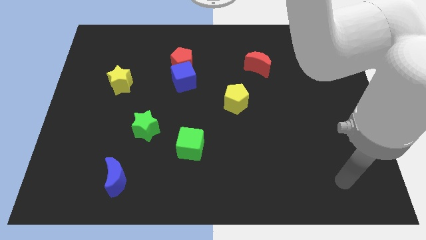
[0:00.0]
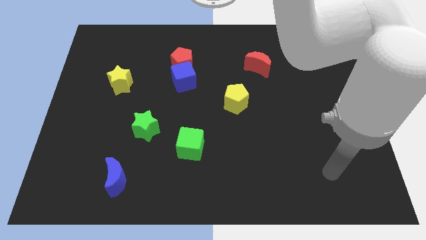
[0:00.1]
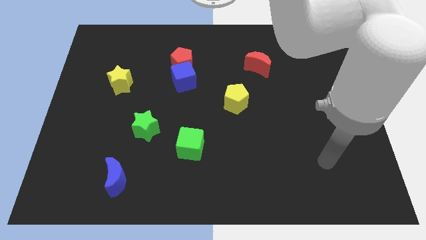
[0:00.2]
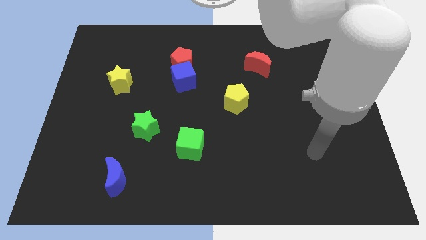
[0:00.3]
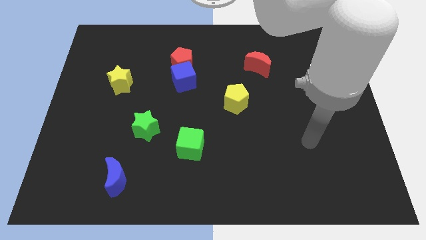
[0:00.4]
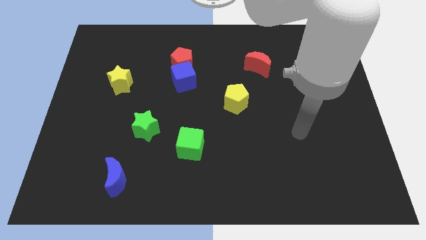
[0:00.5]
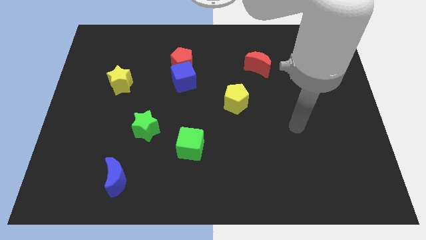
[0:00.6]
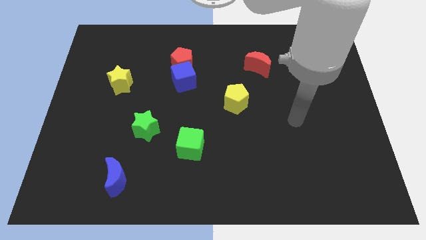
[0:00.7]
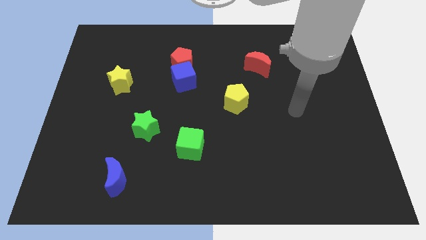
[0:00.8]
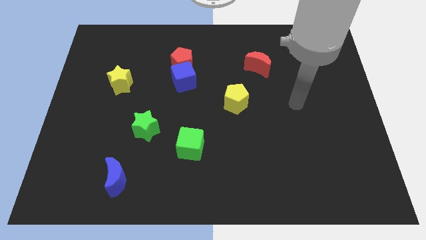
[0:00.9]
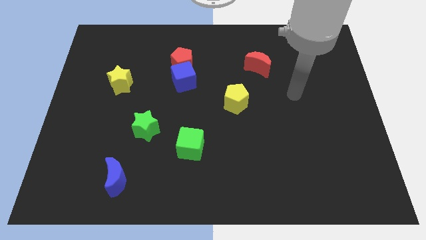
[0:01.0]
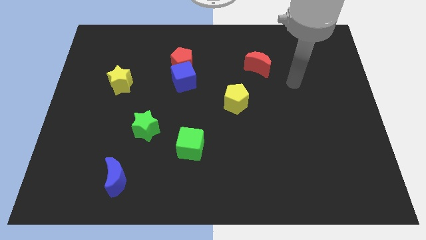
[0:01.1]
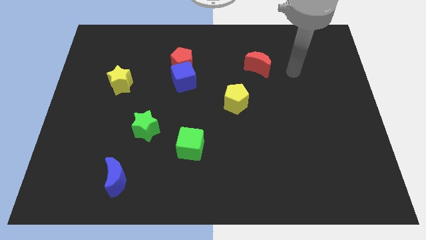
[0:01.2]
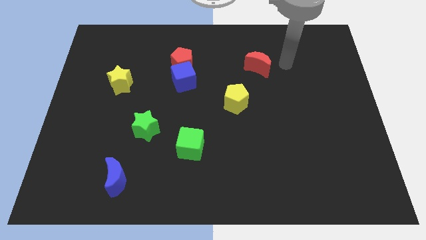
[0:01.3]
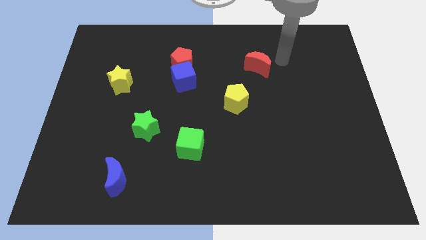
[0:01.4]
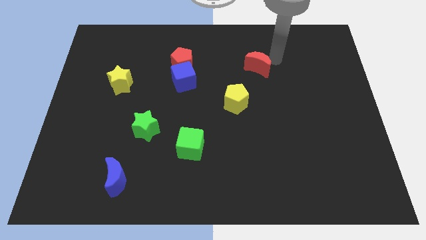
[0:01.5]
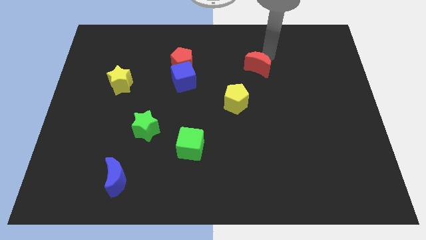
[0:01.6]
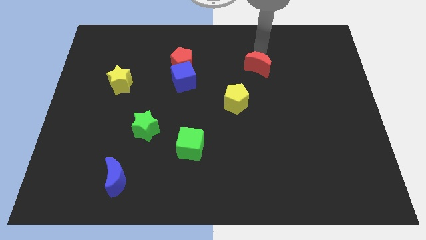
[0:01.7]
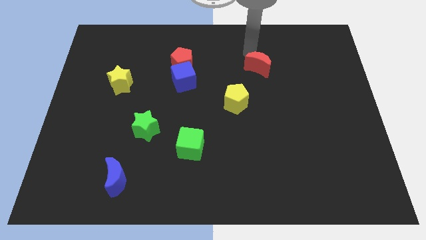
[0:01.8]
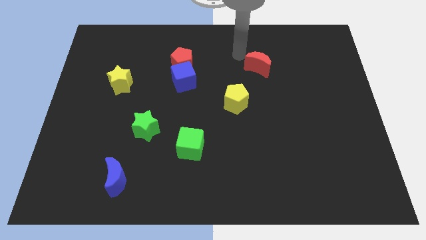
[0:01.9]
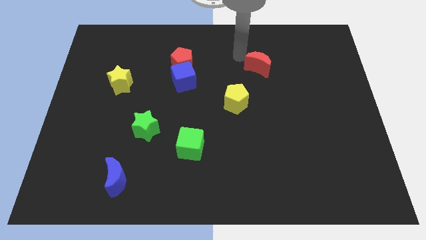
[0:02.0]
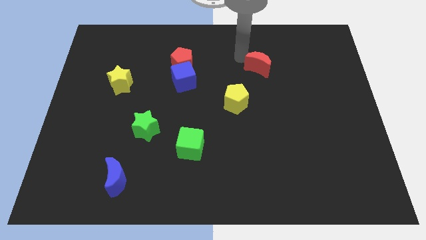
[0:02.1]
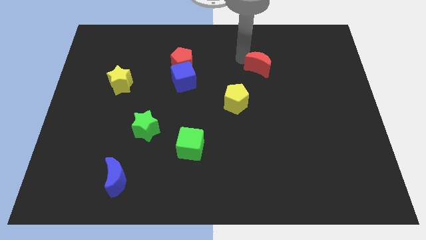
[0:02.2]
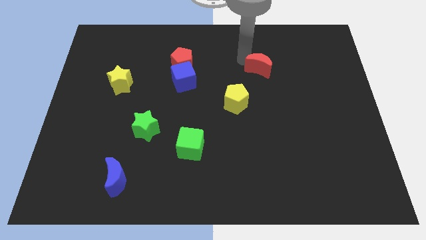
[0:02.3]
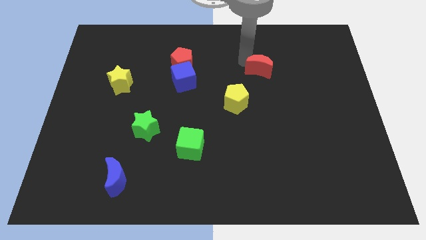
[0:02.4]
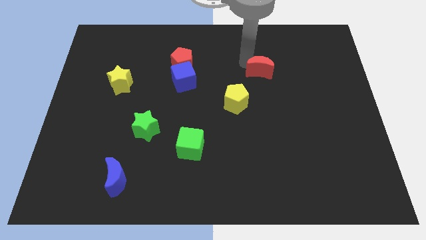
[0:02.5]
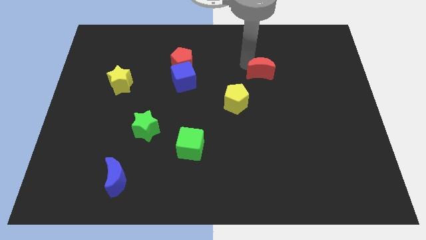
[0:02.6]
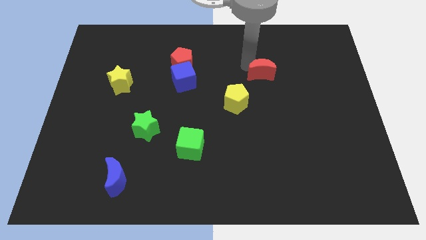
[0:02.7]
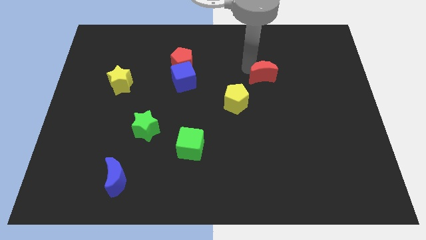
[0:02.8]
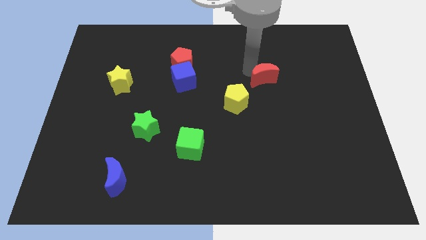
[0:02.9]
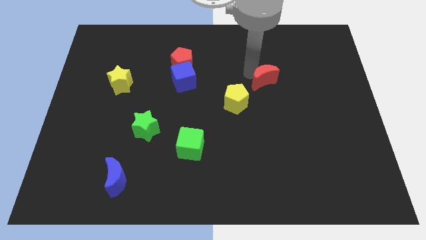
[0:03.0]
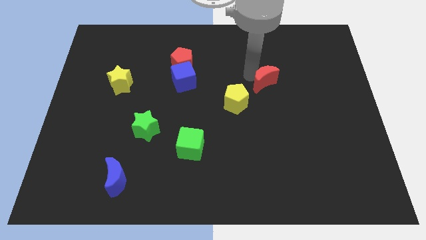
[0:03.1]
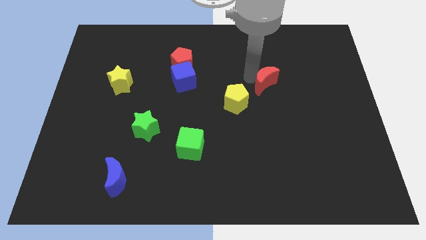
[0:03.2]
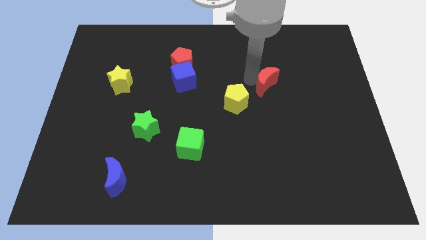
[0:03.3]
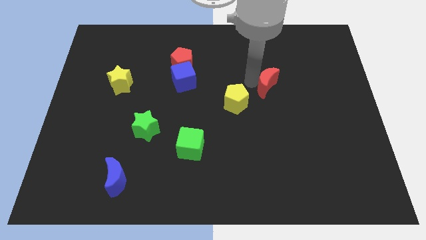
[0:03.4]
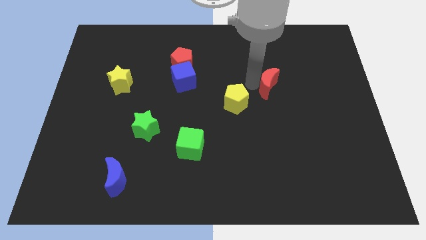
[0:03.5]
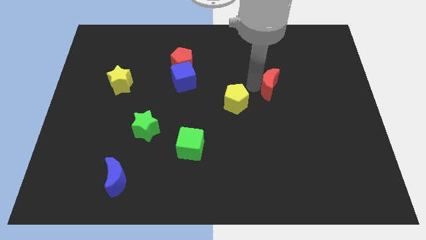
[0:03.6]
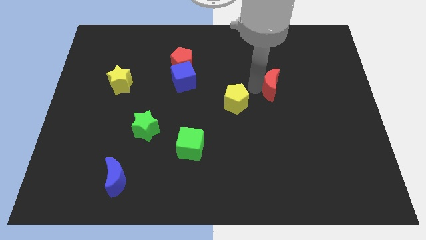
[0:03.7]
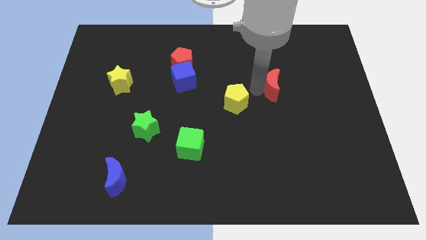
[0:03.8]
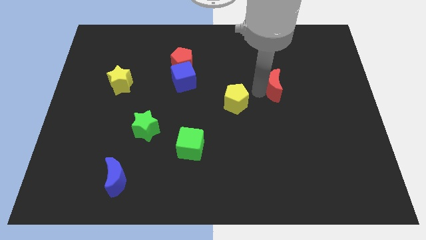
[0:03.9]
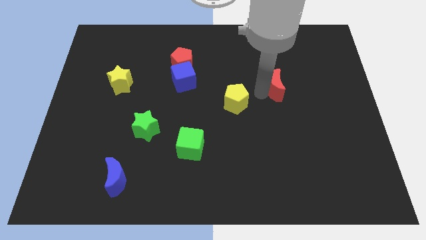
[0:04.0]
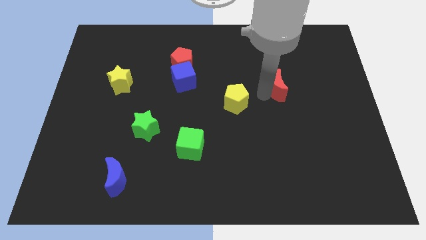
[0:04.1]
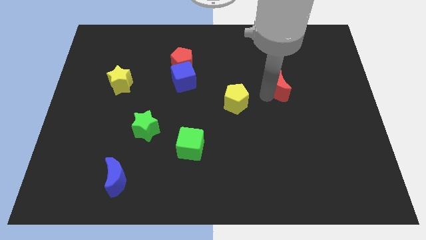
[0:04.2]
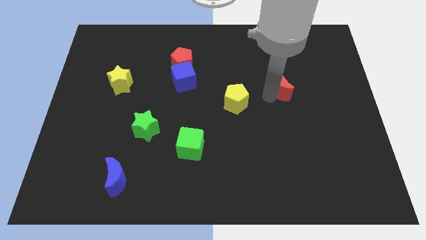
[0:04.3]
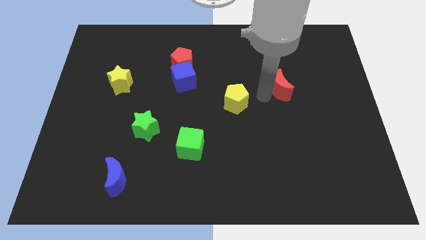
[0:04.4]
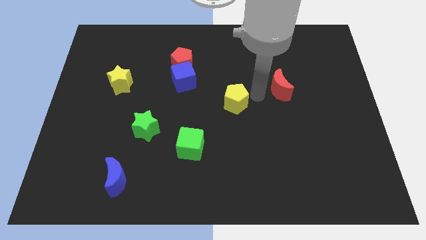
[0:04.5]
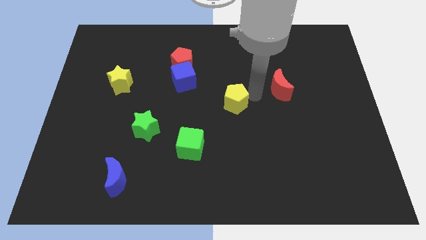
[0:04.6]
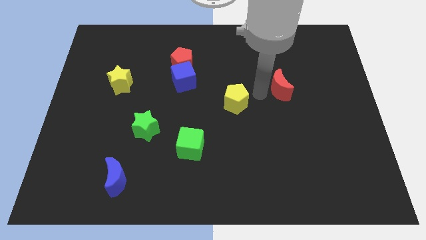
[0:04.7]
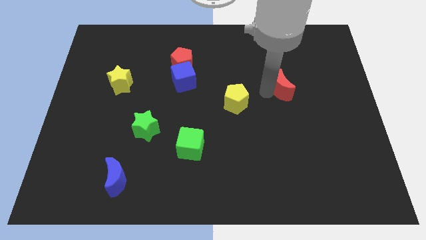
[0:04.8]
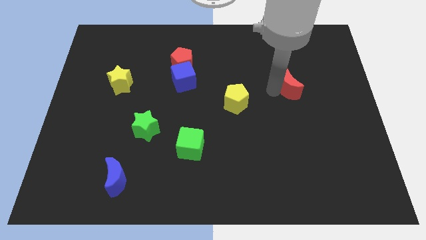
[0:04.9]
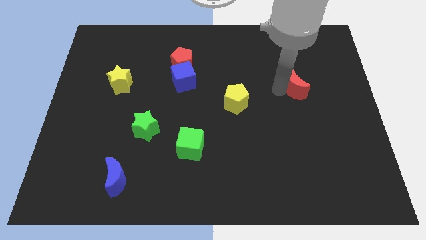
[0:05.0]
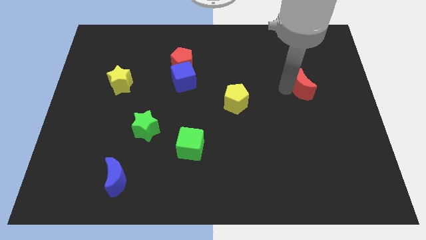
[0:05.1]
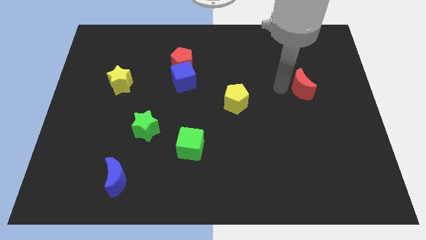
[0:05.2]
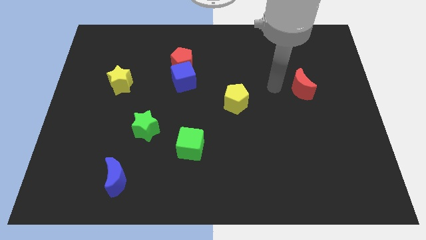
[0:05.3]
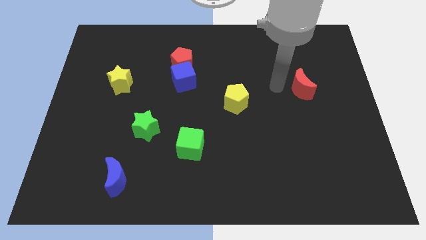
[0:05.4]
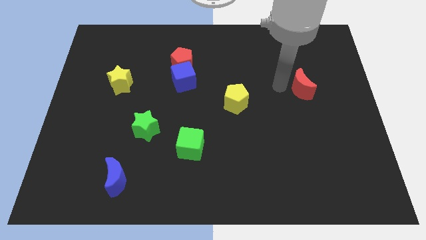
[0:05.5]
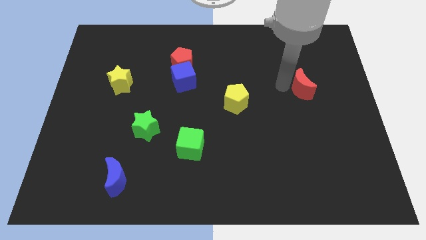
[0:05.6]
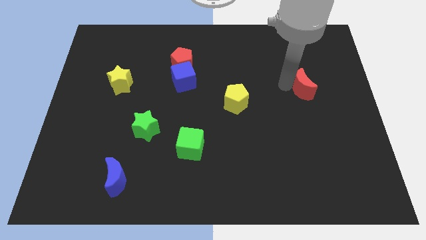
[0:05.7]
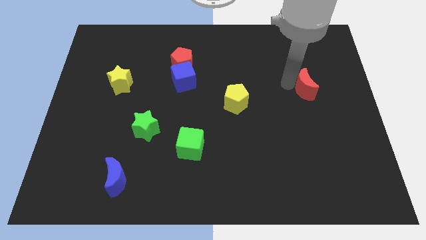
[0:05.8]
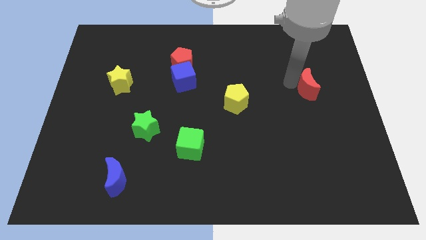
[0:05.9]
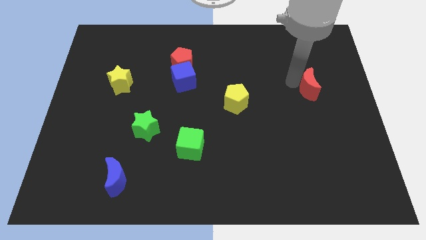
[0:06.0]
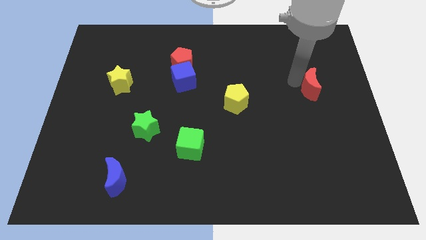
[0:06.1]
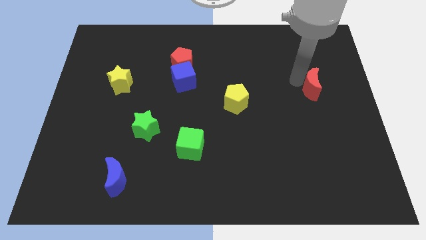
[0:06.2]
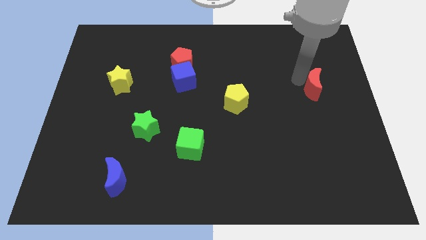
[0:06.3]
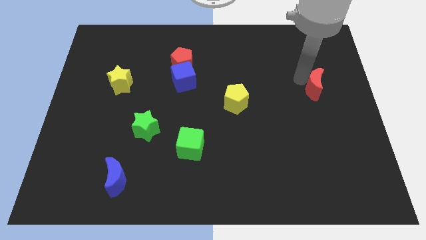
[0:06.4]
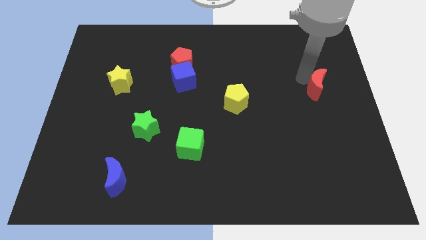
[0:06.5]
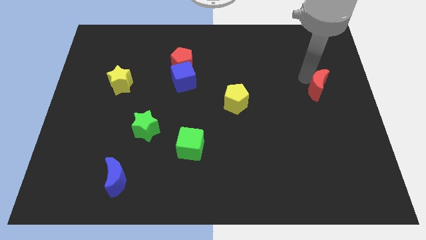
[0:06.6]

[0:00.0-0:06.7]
move the red moon to the center right
